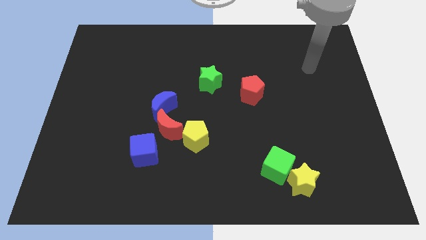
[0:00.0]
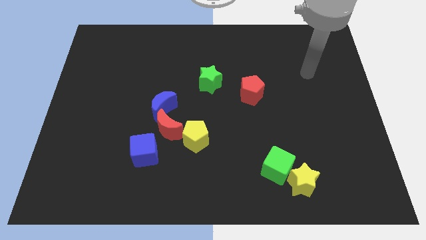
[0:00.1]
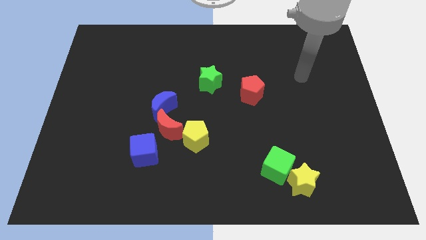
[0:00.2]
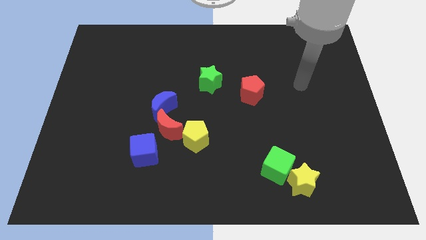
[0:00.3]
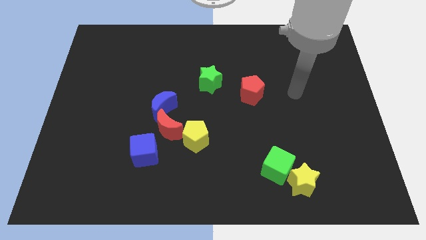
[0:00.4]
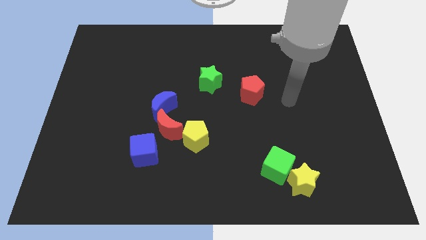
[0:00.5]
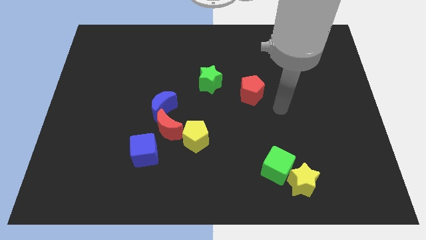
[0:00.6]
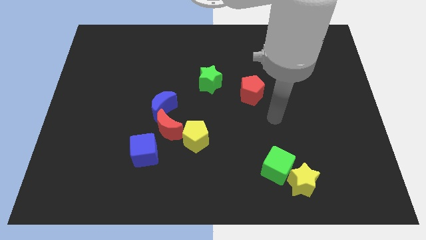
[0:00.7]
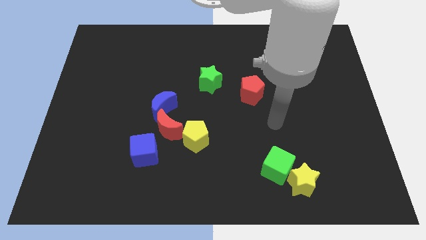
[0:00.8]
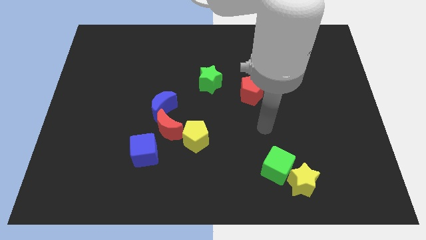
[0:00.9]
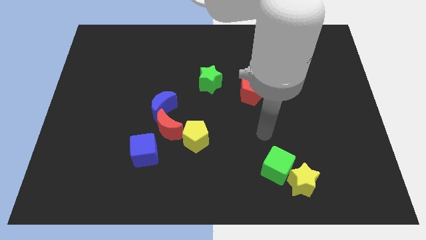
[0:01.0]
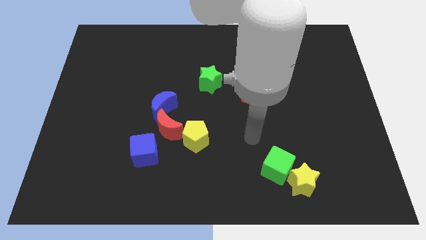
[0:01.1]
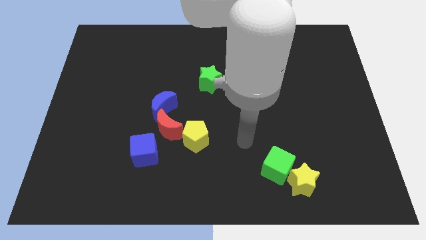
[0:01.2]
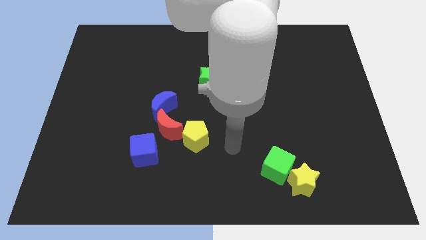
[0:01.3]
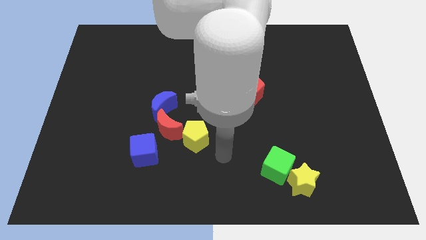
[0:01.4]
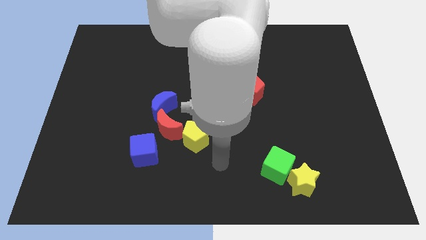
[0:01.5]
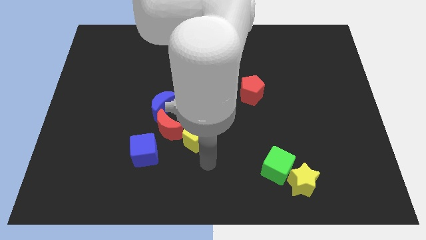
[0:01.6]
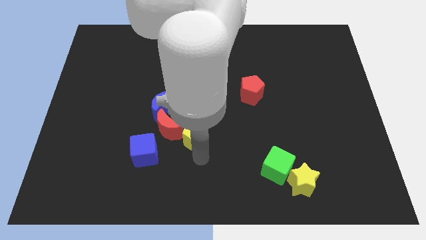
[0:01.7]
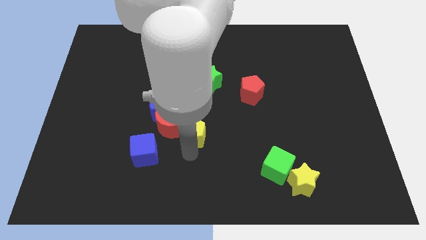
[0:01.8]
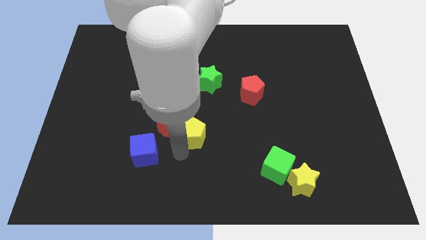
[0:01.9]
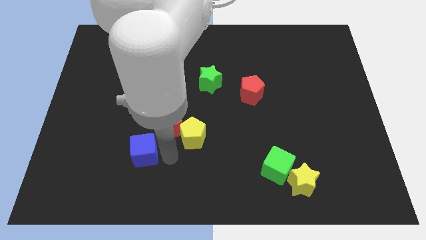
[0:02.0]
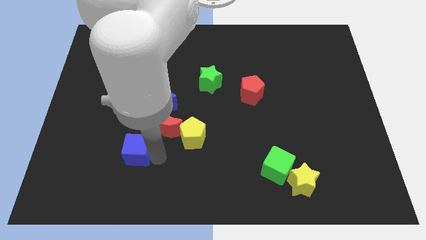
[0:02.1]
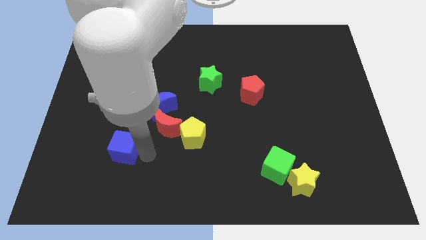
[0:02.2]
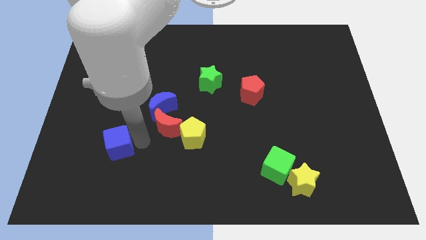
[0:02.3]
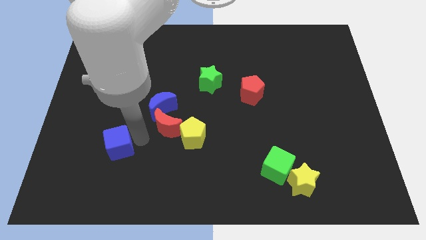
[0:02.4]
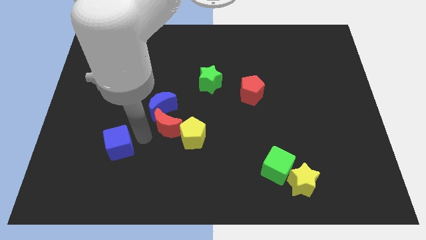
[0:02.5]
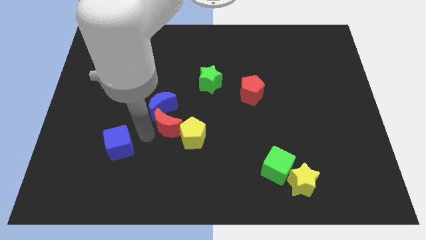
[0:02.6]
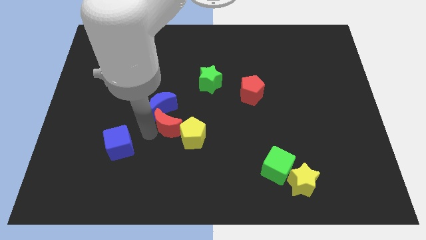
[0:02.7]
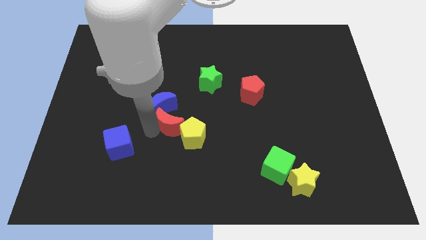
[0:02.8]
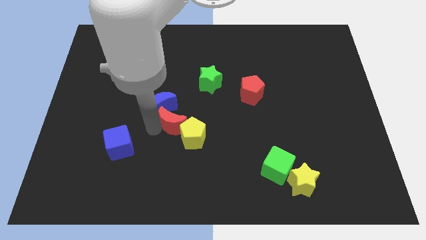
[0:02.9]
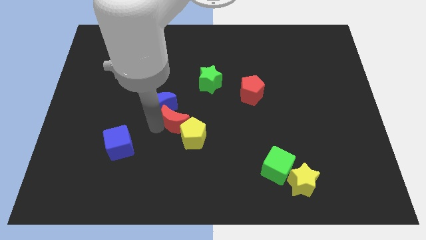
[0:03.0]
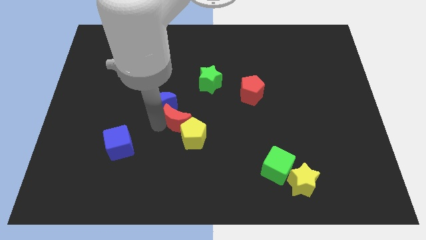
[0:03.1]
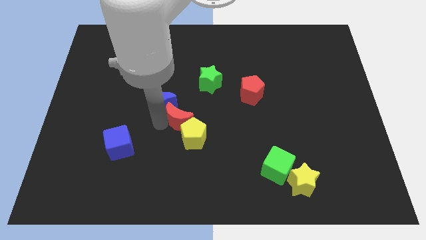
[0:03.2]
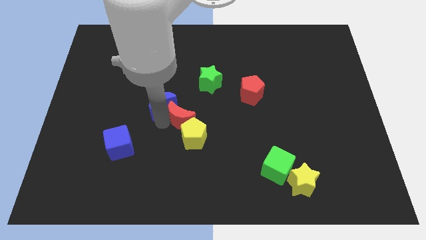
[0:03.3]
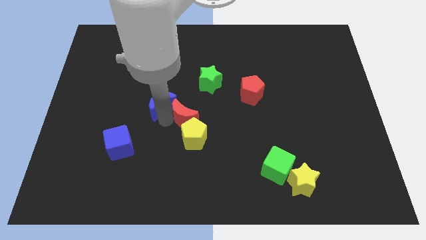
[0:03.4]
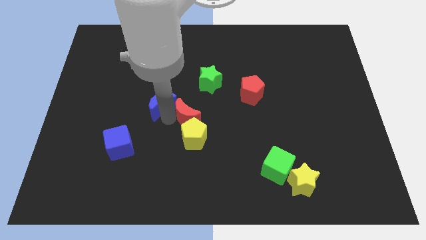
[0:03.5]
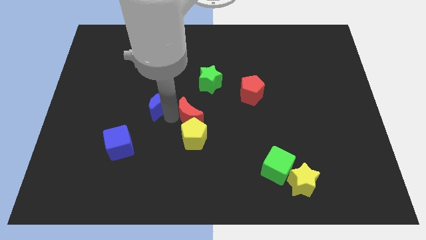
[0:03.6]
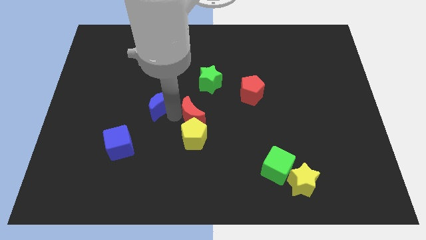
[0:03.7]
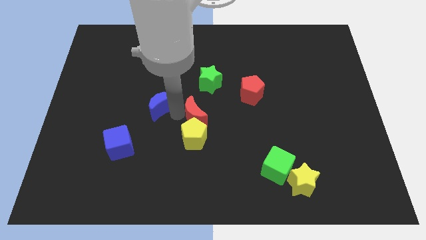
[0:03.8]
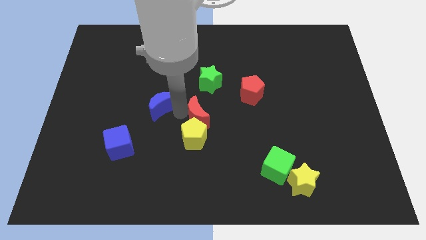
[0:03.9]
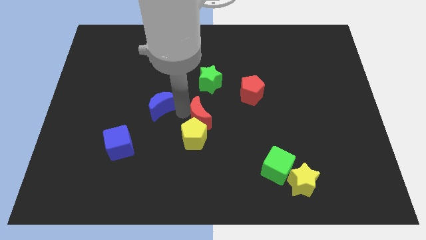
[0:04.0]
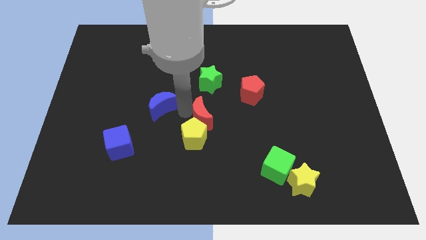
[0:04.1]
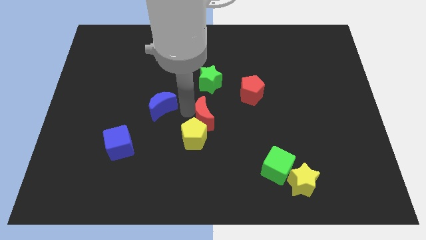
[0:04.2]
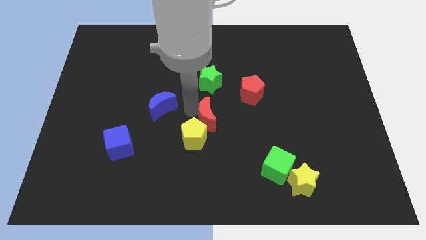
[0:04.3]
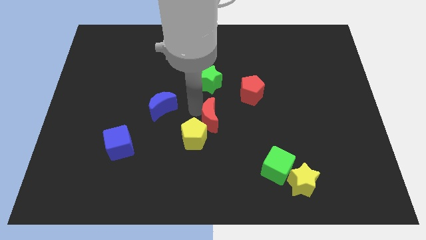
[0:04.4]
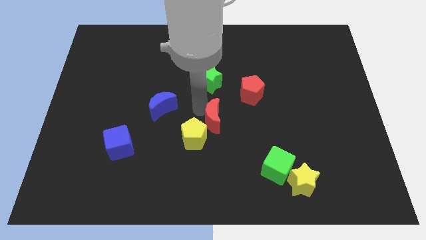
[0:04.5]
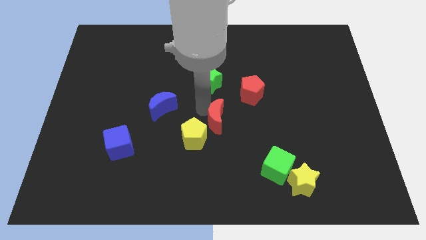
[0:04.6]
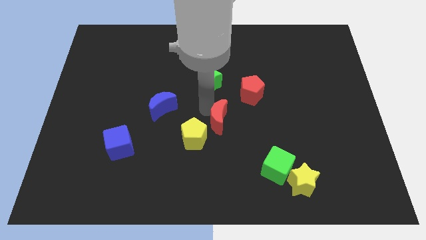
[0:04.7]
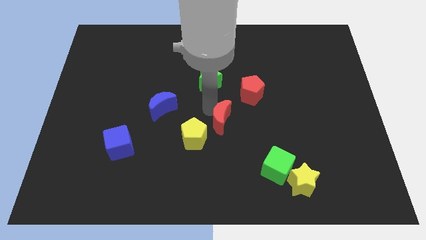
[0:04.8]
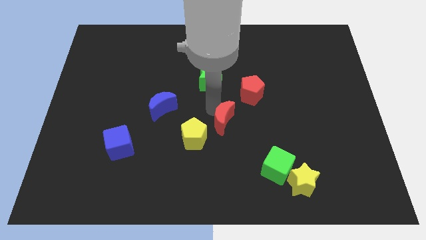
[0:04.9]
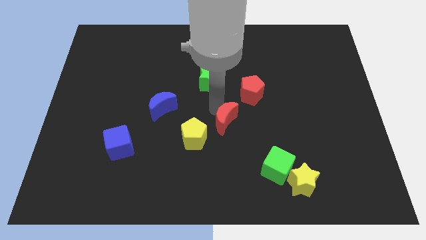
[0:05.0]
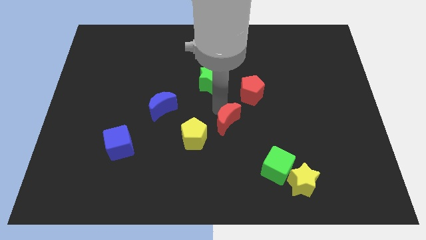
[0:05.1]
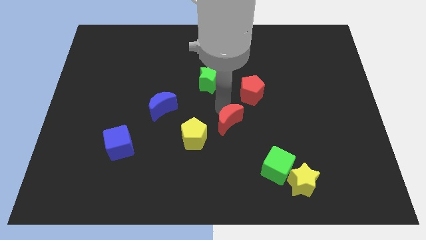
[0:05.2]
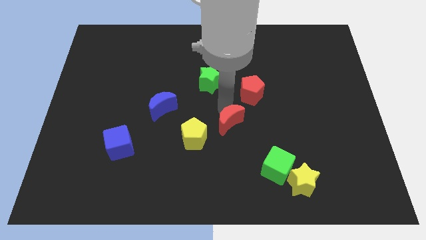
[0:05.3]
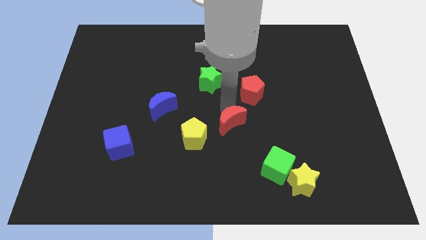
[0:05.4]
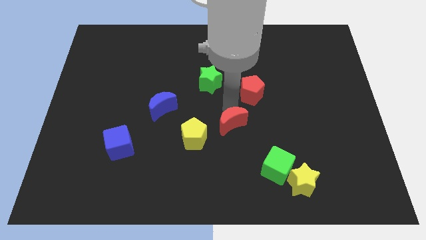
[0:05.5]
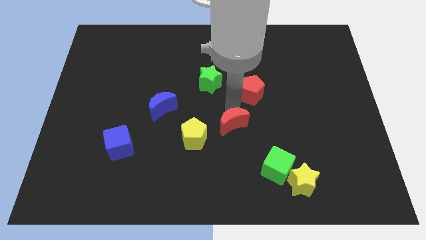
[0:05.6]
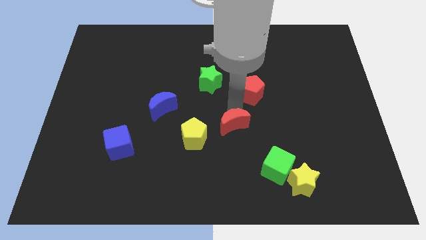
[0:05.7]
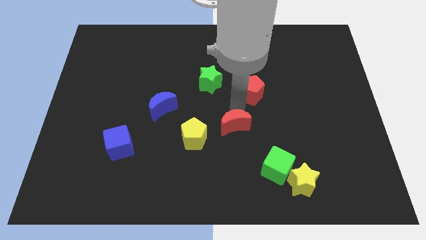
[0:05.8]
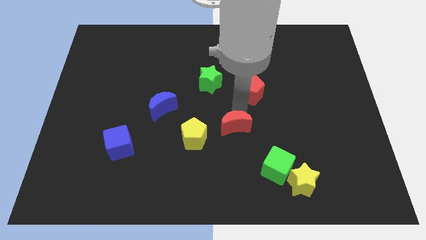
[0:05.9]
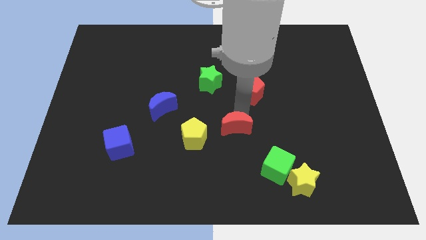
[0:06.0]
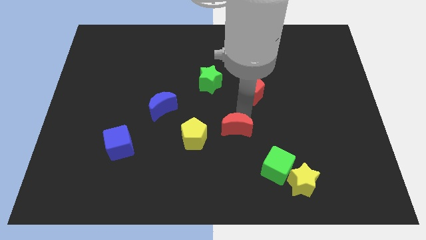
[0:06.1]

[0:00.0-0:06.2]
move the red moon diagonally up and to the left of the green cube

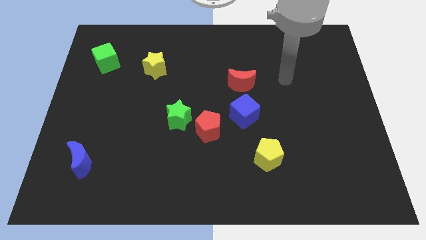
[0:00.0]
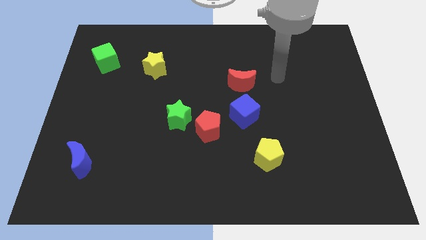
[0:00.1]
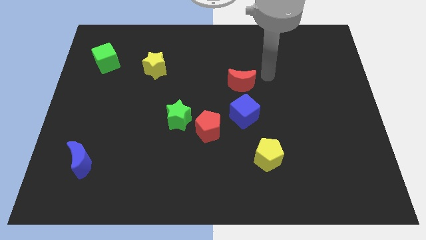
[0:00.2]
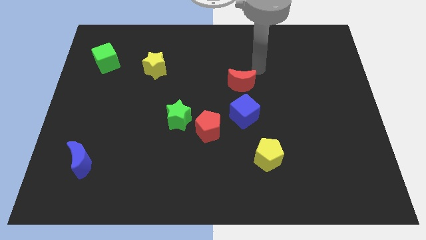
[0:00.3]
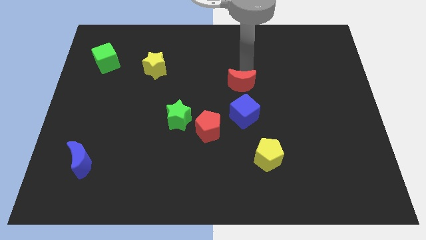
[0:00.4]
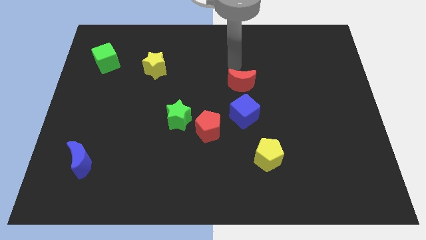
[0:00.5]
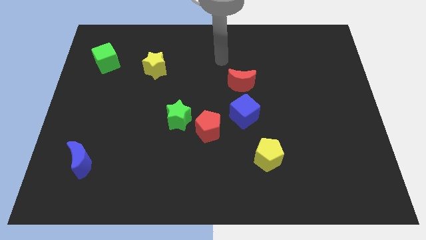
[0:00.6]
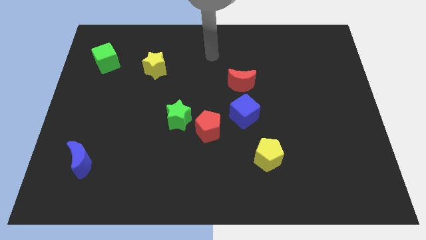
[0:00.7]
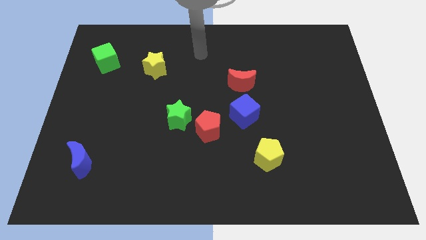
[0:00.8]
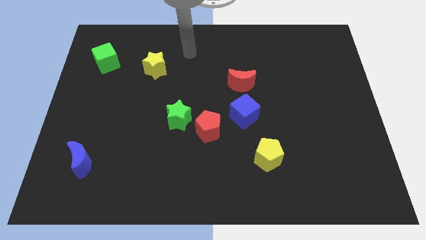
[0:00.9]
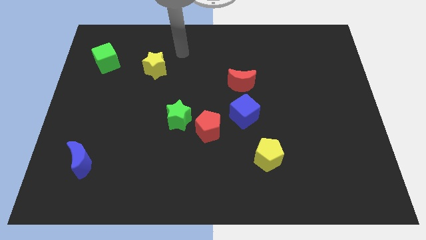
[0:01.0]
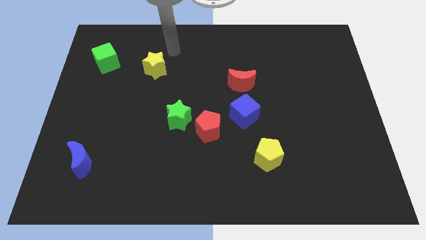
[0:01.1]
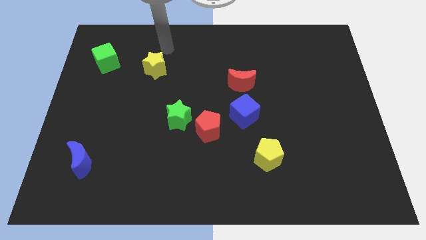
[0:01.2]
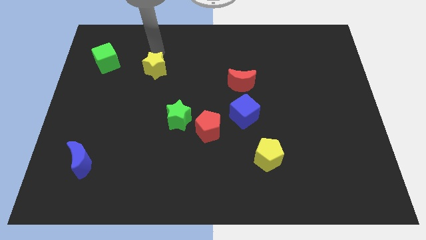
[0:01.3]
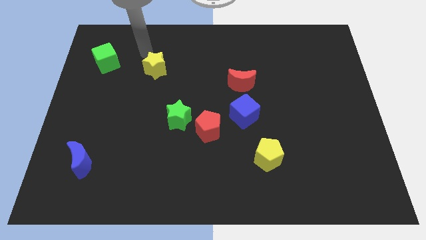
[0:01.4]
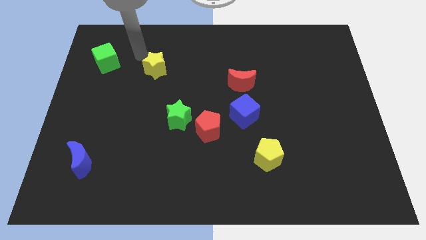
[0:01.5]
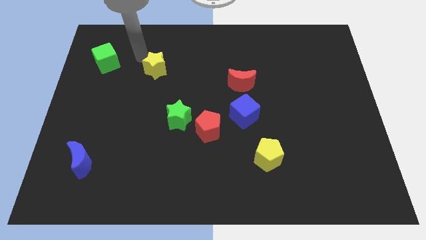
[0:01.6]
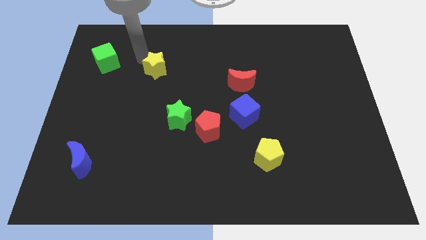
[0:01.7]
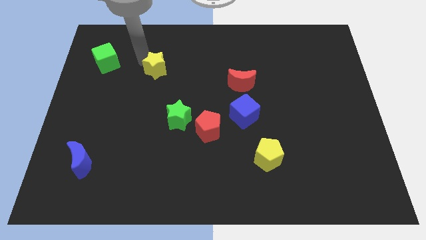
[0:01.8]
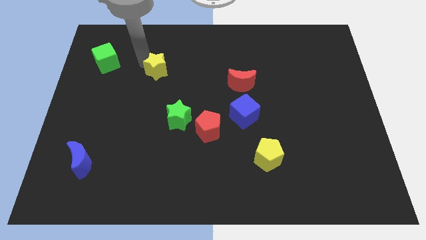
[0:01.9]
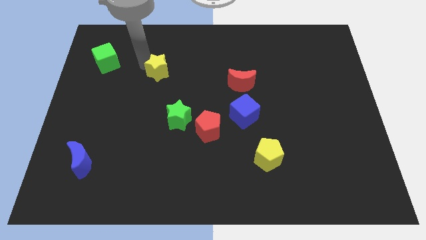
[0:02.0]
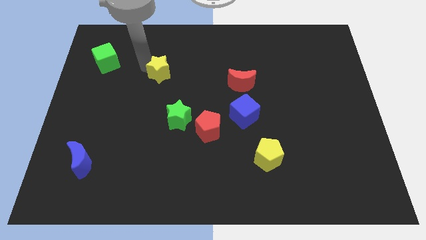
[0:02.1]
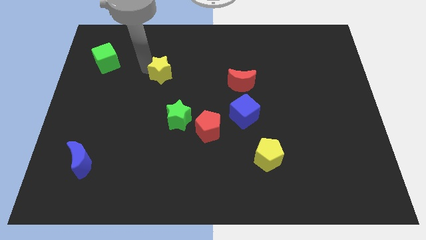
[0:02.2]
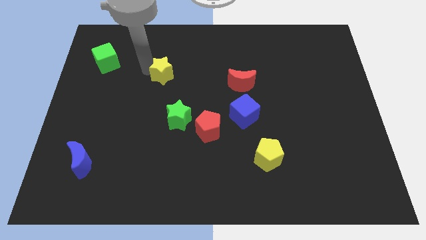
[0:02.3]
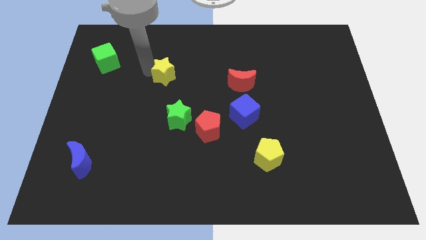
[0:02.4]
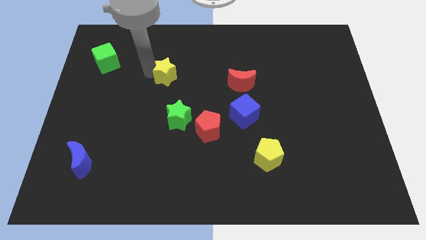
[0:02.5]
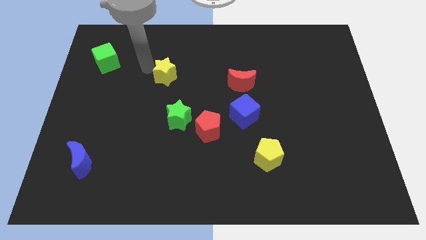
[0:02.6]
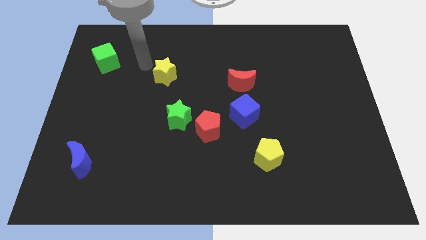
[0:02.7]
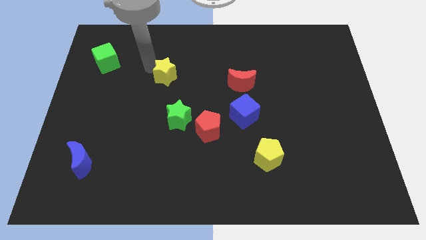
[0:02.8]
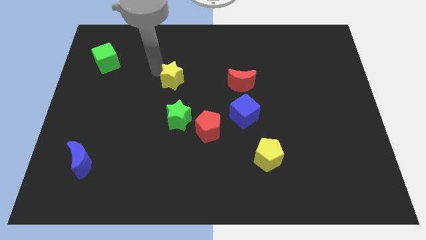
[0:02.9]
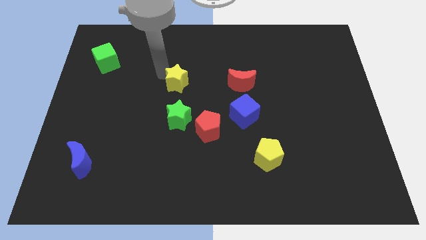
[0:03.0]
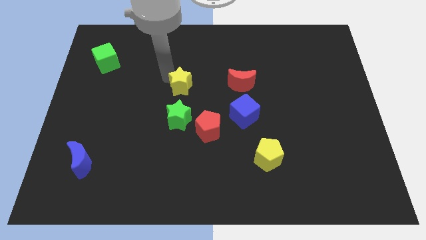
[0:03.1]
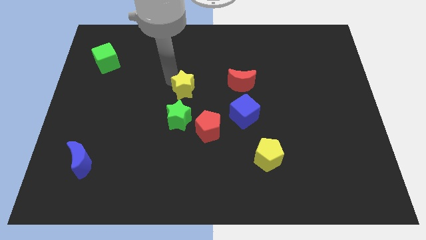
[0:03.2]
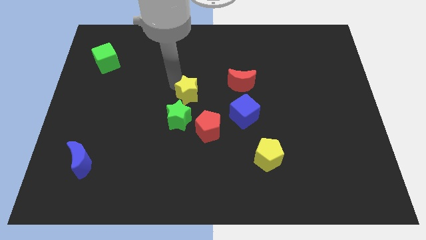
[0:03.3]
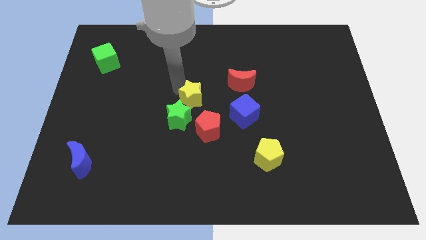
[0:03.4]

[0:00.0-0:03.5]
put the yellow star to the top side of the red pentagon
